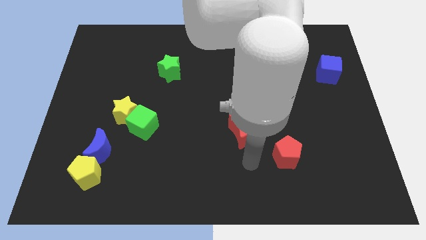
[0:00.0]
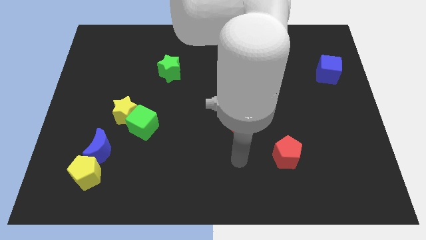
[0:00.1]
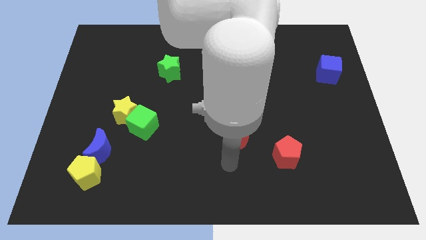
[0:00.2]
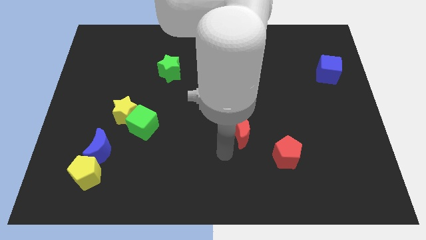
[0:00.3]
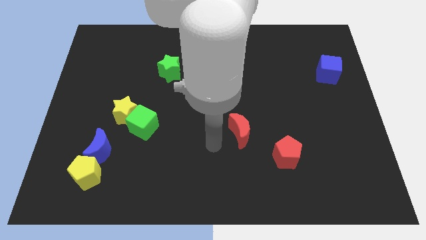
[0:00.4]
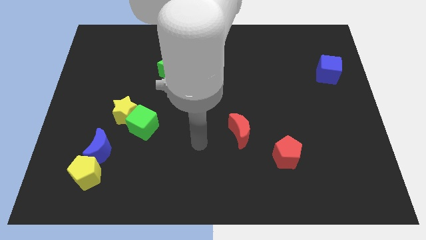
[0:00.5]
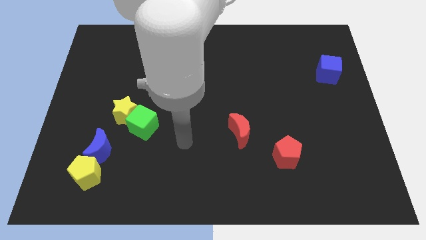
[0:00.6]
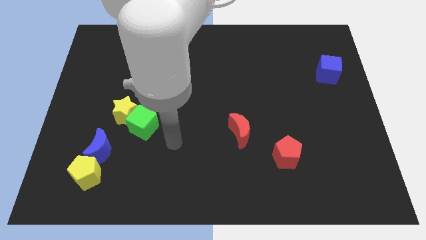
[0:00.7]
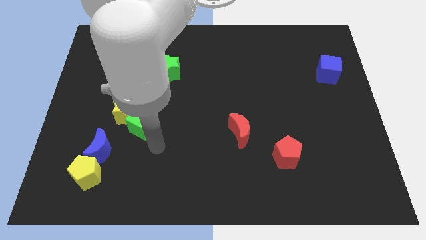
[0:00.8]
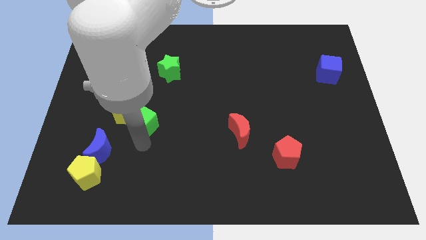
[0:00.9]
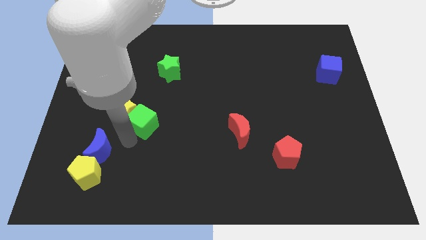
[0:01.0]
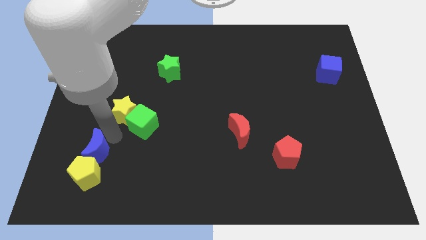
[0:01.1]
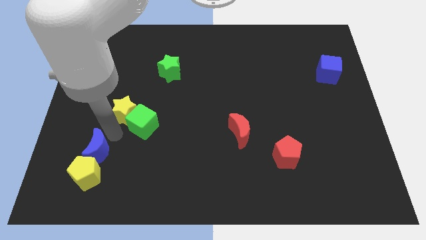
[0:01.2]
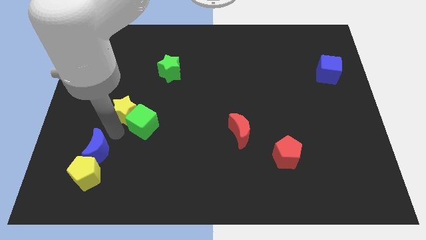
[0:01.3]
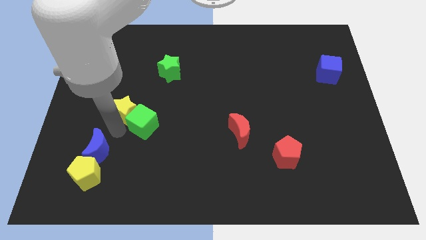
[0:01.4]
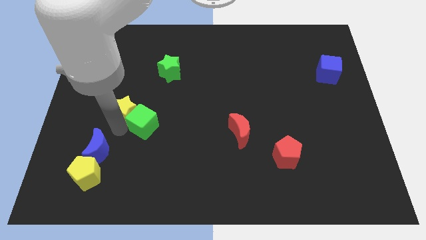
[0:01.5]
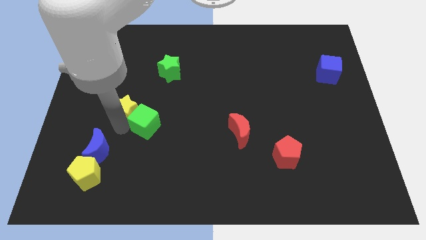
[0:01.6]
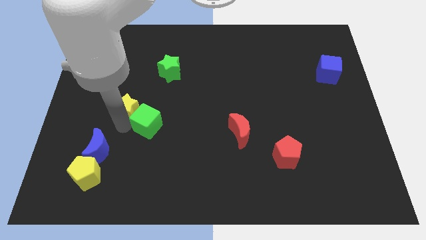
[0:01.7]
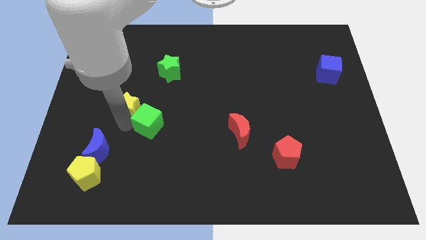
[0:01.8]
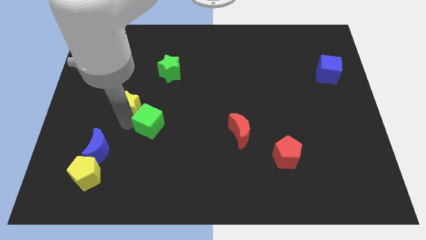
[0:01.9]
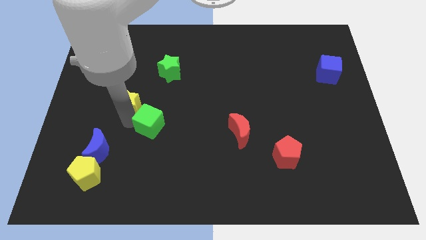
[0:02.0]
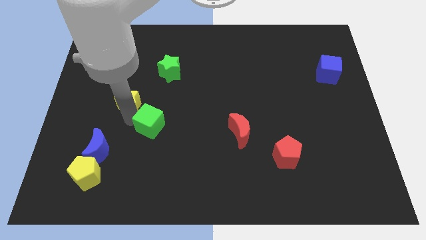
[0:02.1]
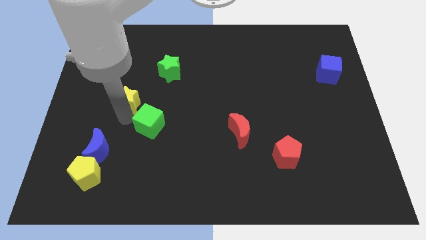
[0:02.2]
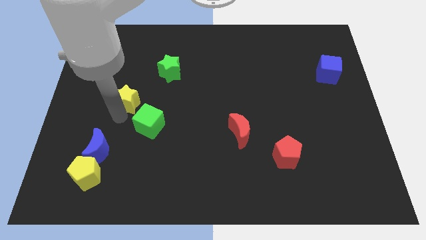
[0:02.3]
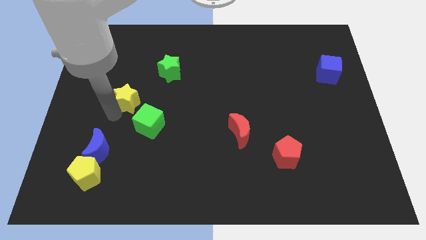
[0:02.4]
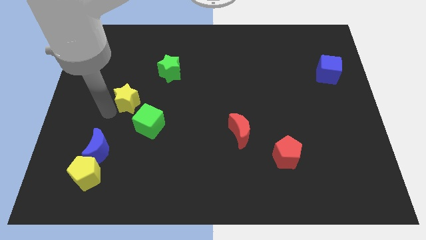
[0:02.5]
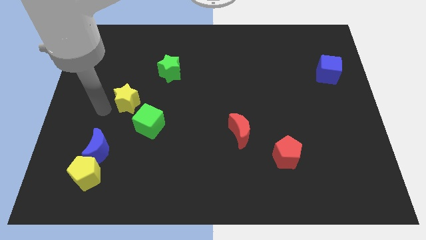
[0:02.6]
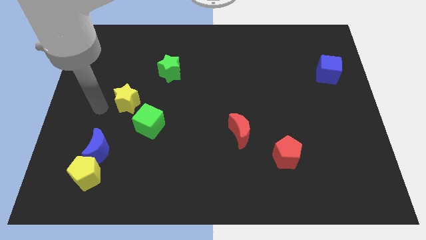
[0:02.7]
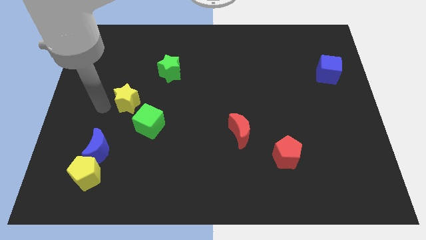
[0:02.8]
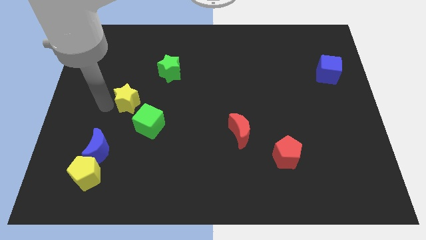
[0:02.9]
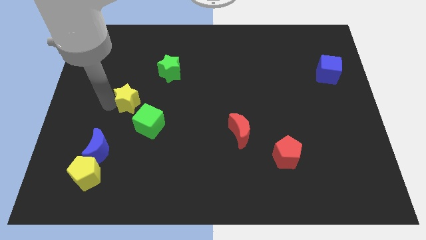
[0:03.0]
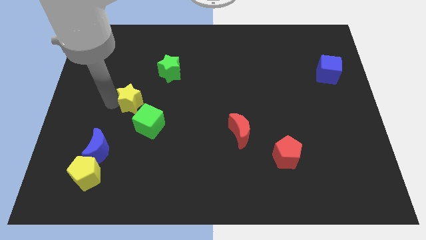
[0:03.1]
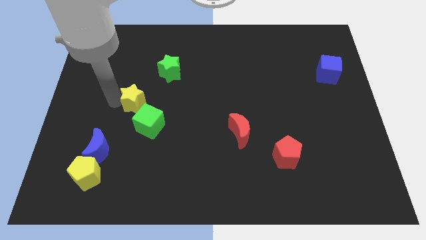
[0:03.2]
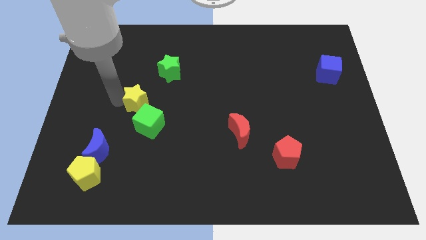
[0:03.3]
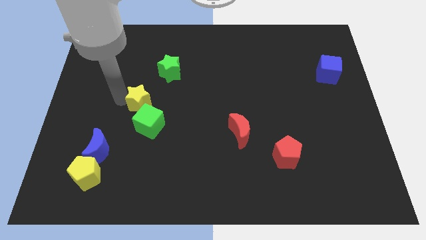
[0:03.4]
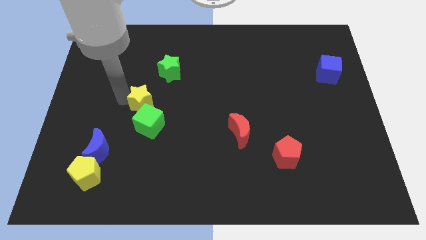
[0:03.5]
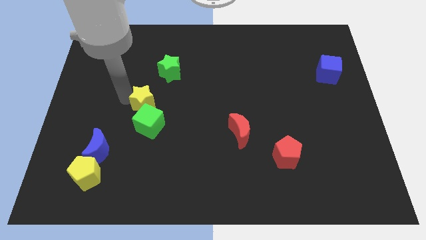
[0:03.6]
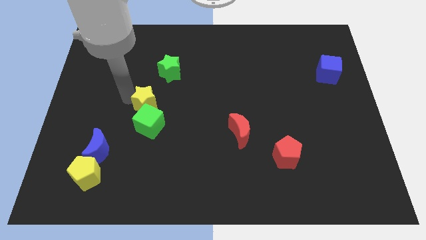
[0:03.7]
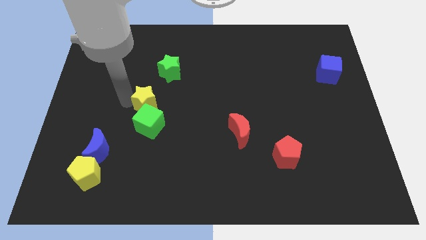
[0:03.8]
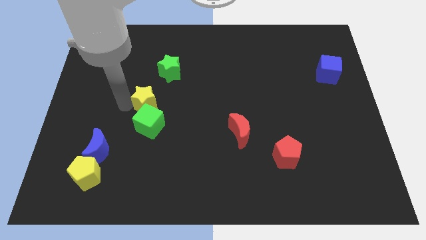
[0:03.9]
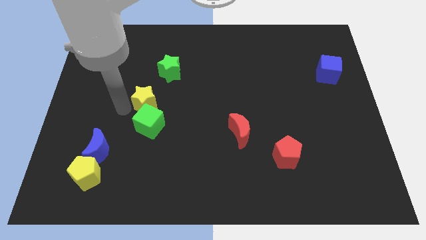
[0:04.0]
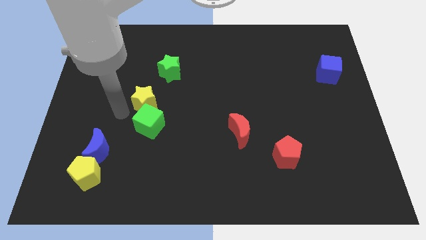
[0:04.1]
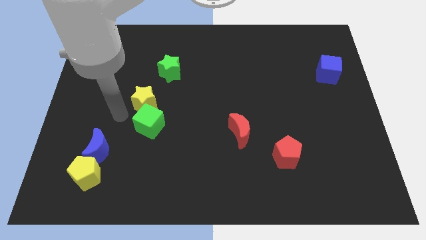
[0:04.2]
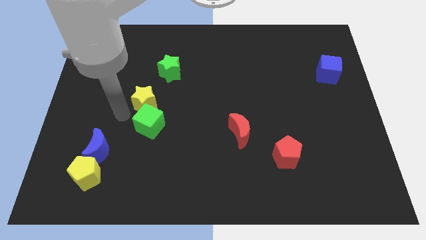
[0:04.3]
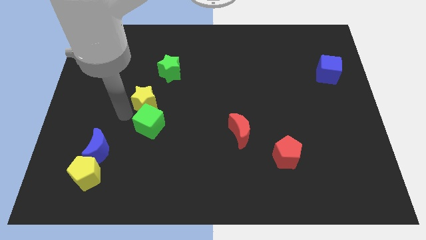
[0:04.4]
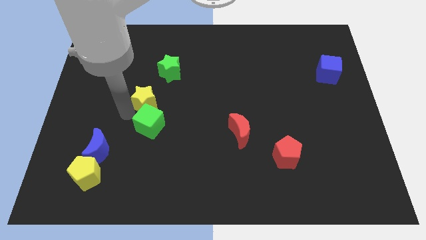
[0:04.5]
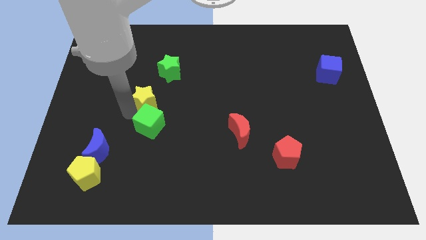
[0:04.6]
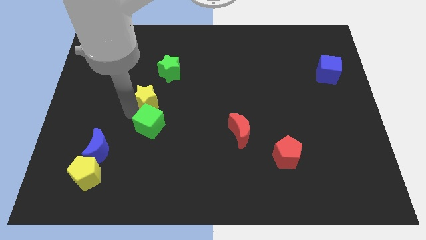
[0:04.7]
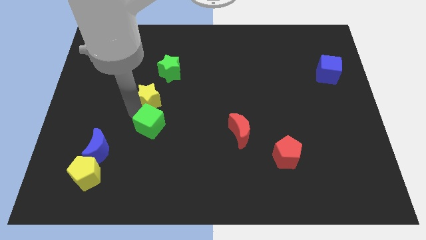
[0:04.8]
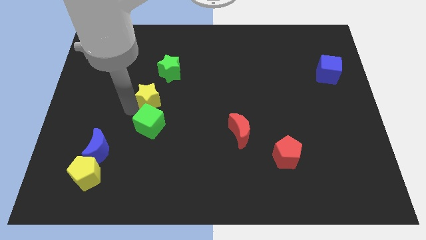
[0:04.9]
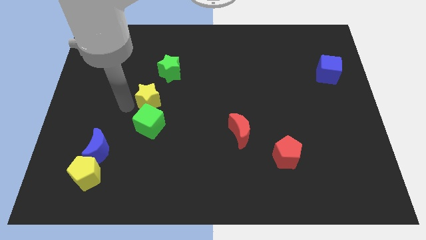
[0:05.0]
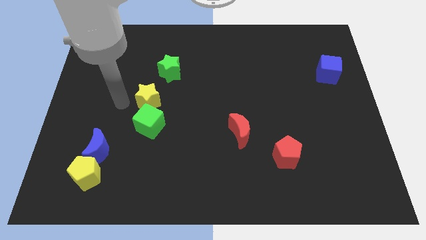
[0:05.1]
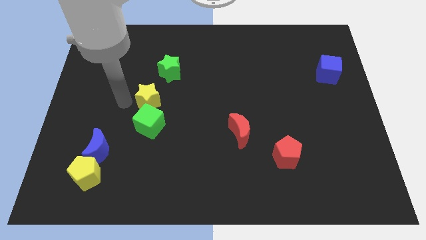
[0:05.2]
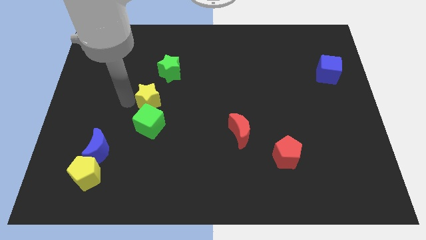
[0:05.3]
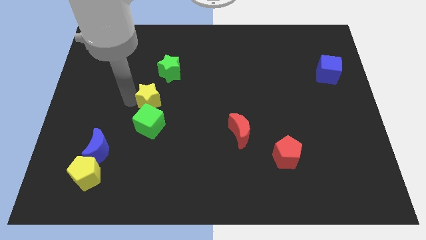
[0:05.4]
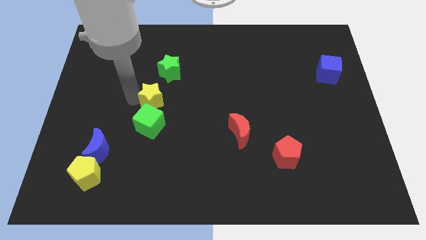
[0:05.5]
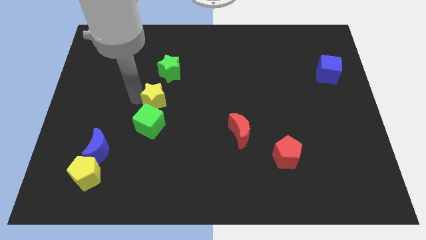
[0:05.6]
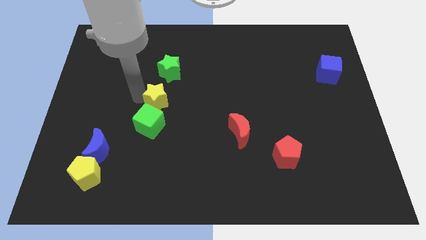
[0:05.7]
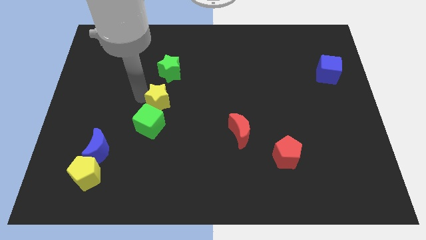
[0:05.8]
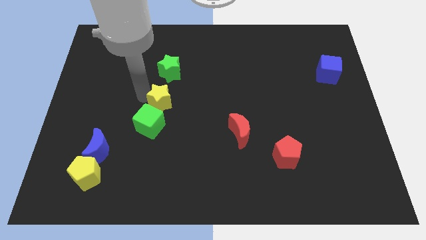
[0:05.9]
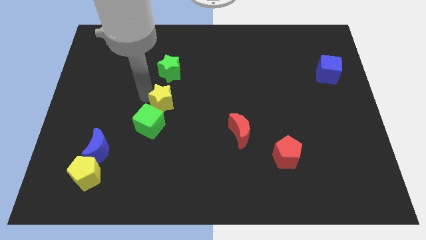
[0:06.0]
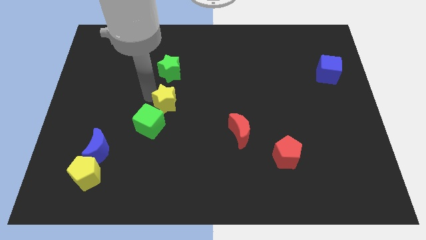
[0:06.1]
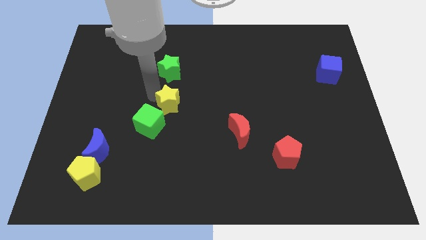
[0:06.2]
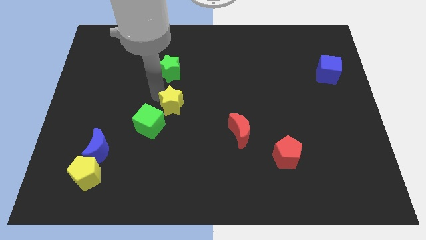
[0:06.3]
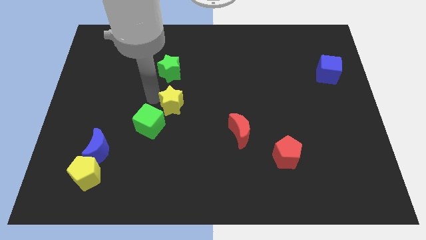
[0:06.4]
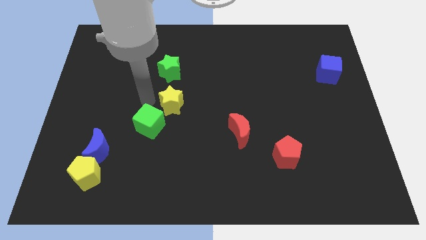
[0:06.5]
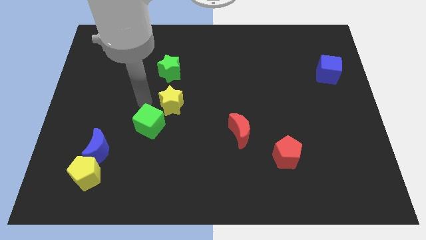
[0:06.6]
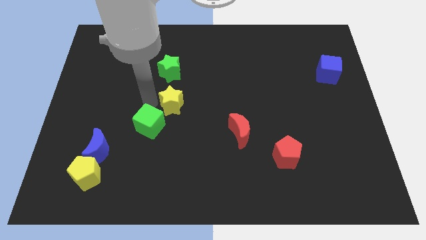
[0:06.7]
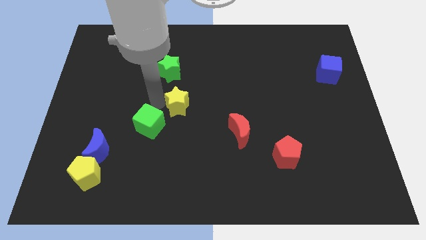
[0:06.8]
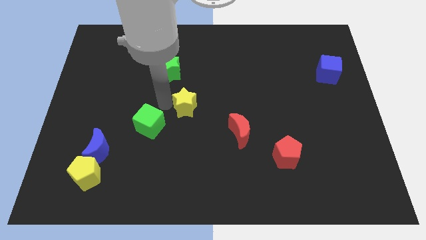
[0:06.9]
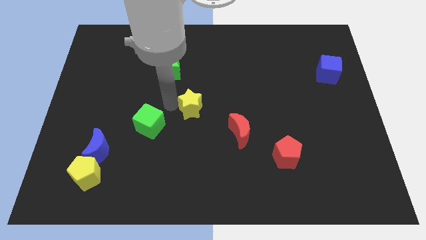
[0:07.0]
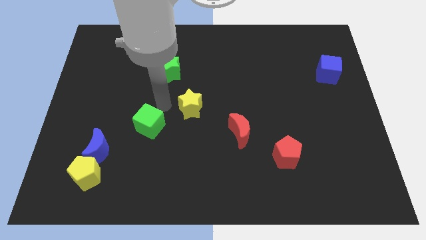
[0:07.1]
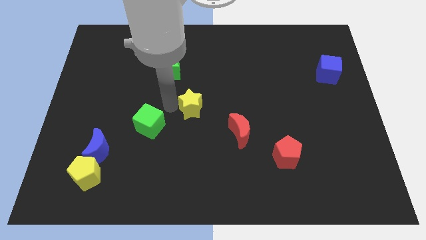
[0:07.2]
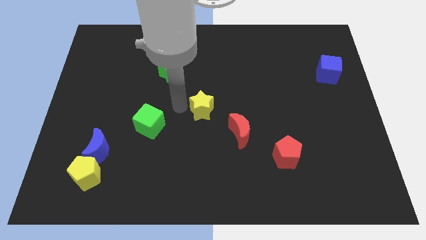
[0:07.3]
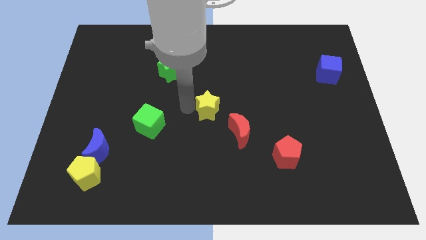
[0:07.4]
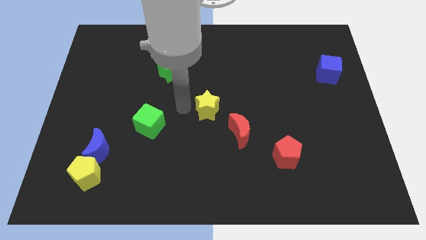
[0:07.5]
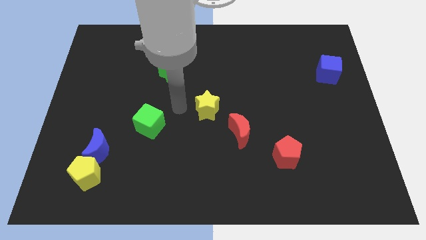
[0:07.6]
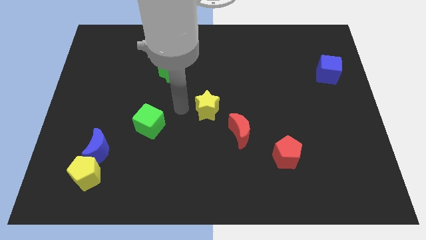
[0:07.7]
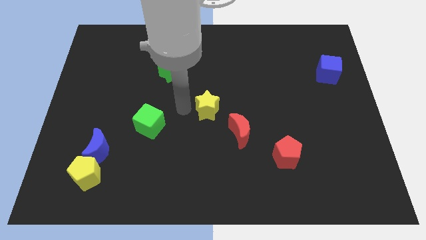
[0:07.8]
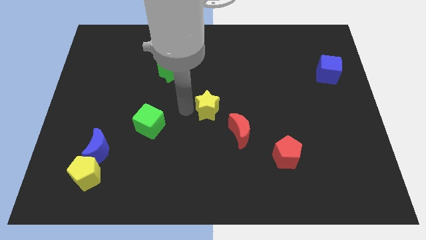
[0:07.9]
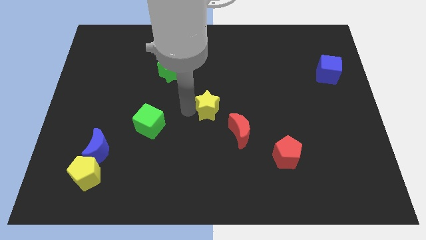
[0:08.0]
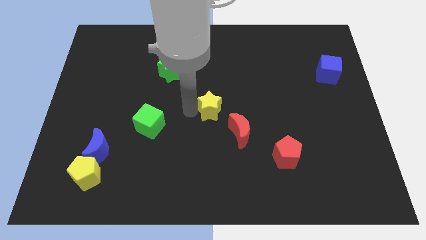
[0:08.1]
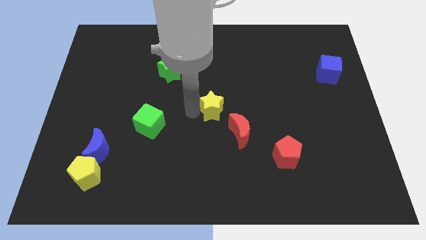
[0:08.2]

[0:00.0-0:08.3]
move the yellow star to the right
